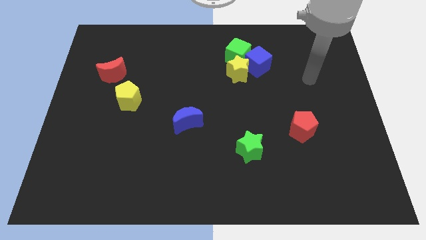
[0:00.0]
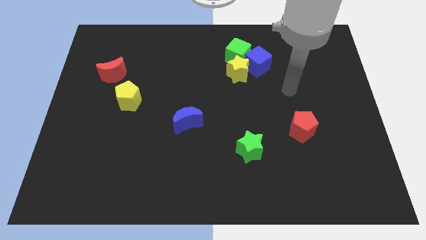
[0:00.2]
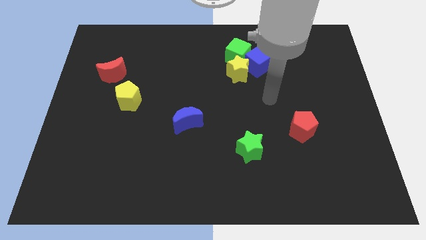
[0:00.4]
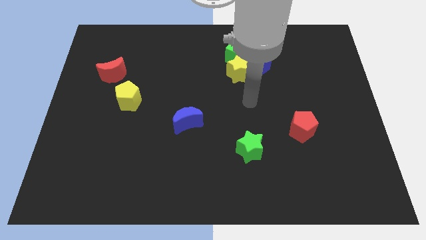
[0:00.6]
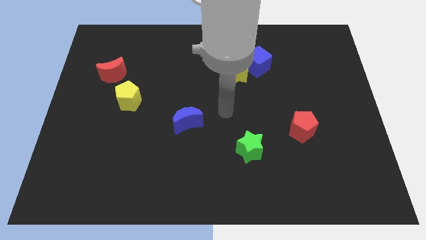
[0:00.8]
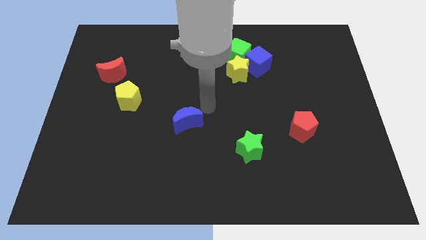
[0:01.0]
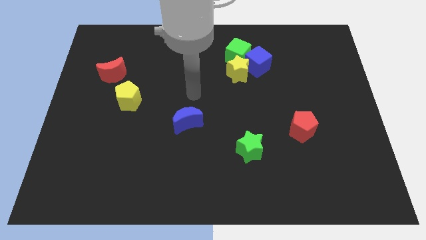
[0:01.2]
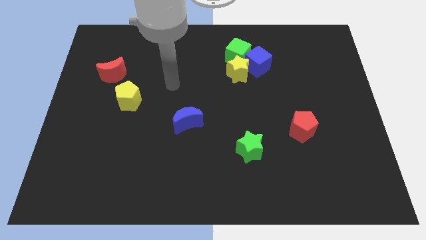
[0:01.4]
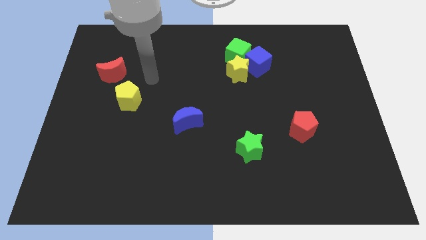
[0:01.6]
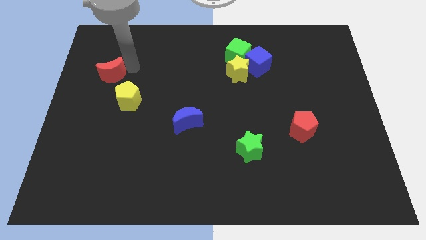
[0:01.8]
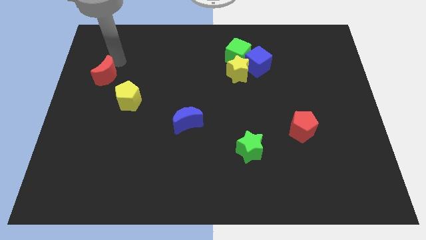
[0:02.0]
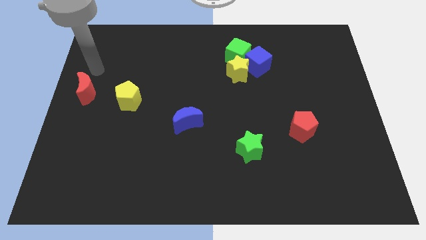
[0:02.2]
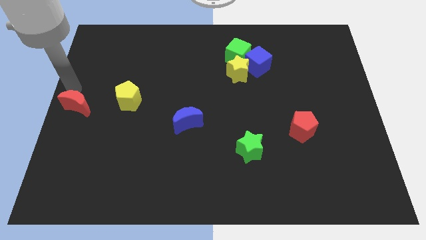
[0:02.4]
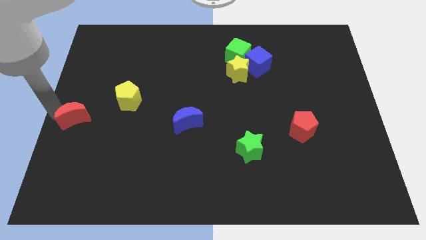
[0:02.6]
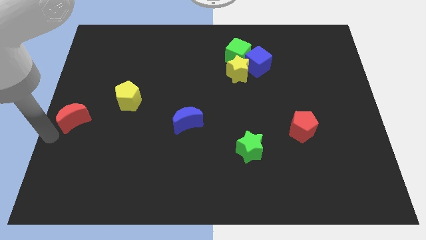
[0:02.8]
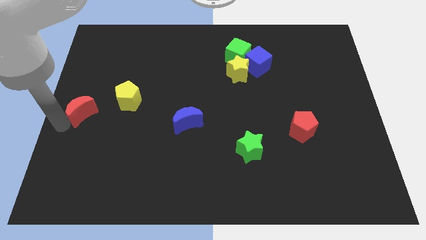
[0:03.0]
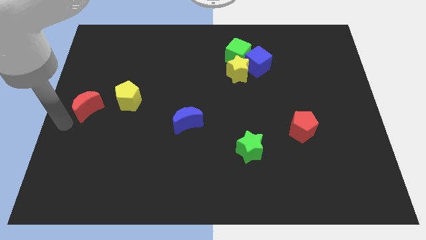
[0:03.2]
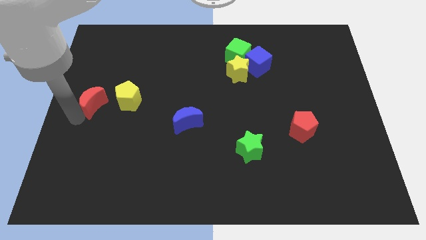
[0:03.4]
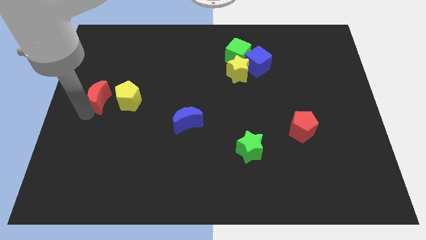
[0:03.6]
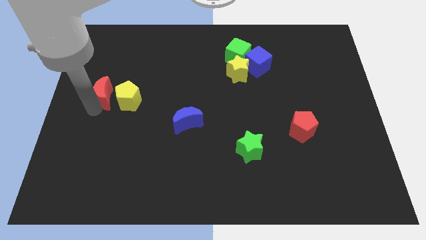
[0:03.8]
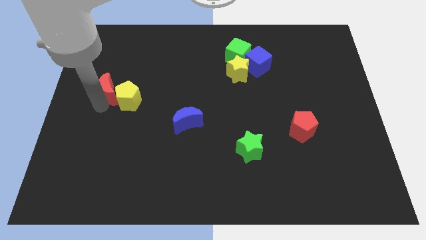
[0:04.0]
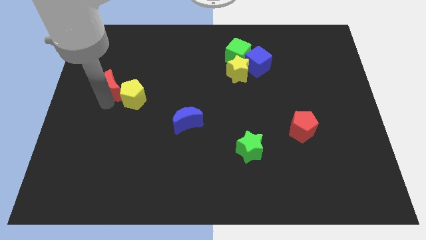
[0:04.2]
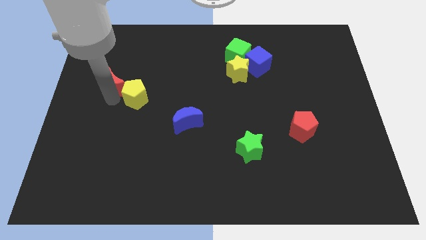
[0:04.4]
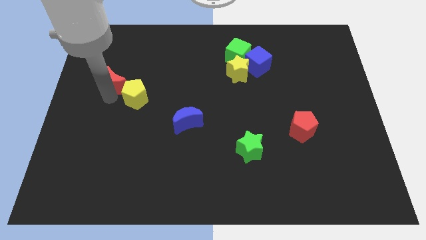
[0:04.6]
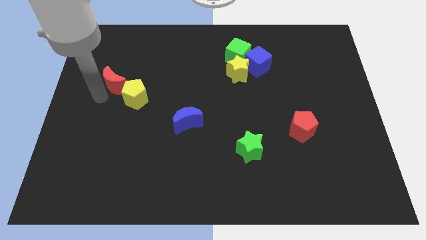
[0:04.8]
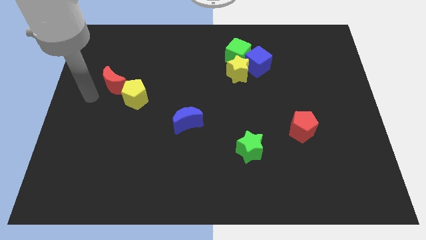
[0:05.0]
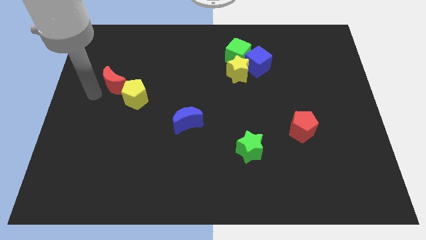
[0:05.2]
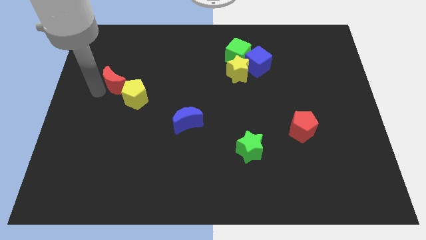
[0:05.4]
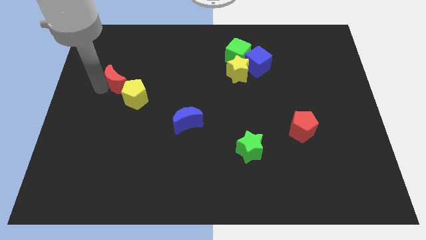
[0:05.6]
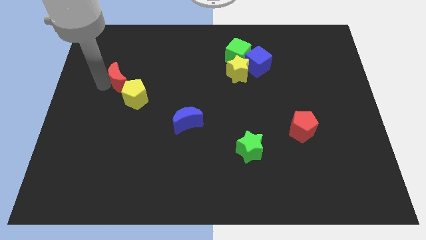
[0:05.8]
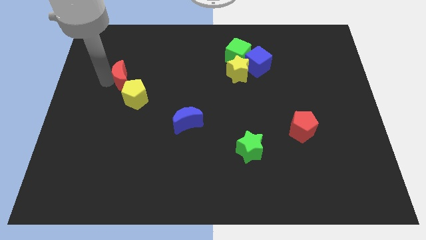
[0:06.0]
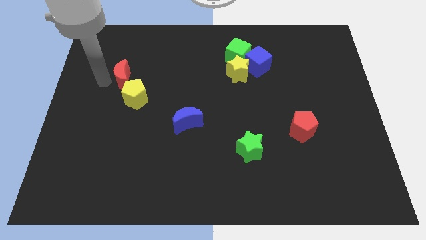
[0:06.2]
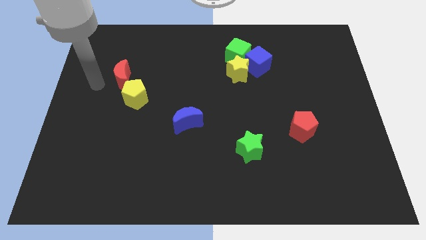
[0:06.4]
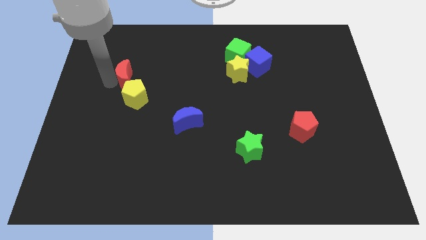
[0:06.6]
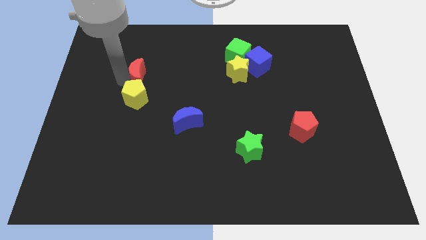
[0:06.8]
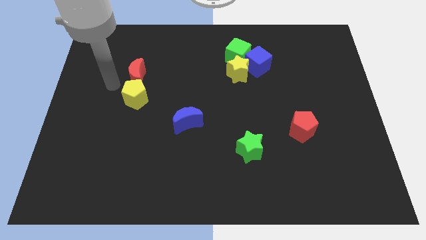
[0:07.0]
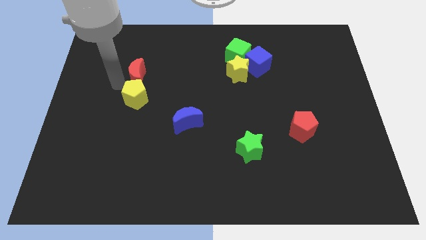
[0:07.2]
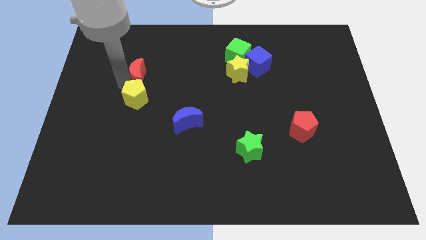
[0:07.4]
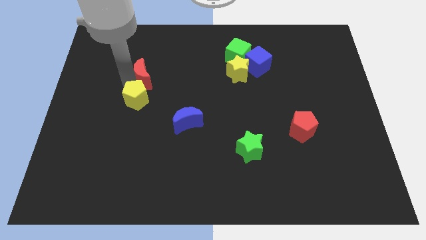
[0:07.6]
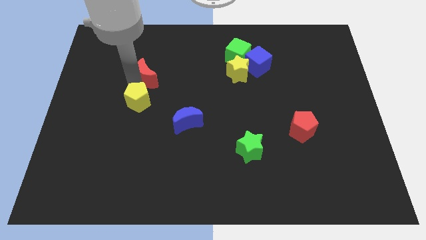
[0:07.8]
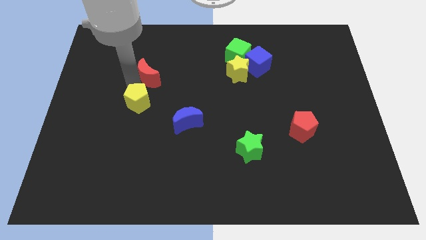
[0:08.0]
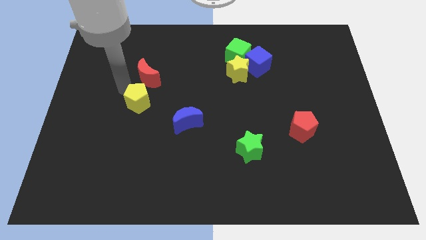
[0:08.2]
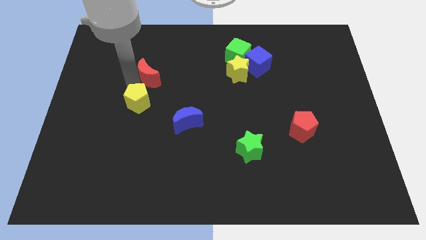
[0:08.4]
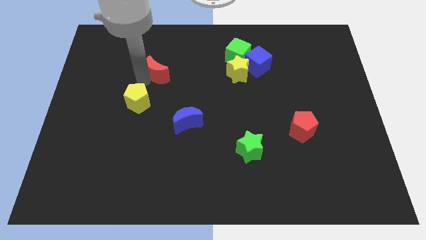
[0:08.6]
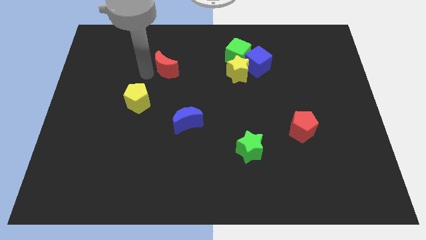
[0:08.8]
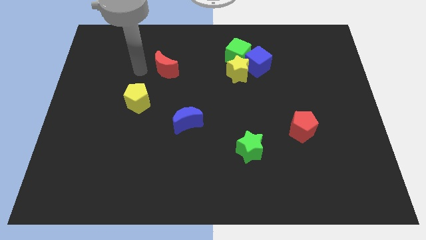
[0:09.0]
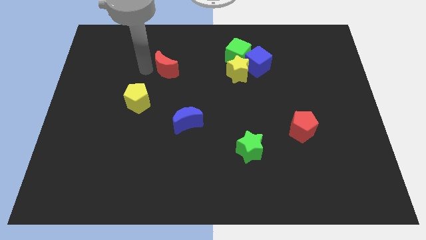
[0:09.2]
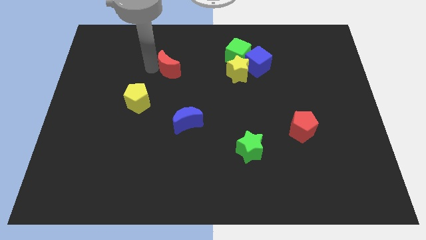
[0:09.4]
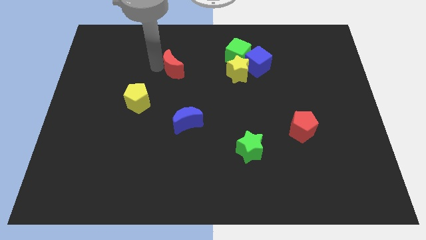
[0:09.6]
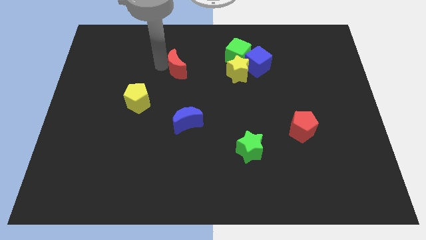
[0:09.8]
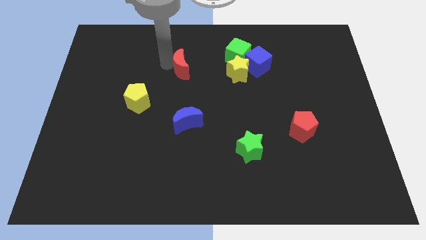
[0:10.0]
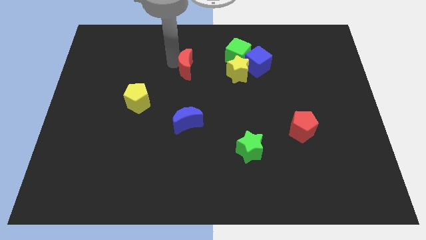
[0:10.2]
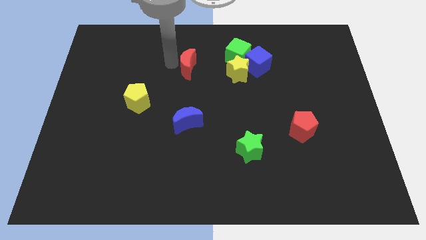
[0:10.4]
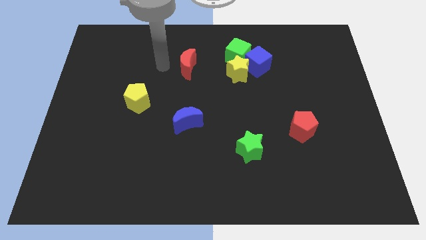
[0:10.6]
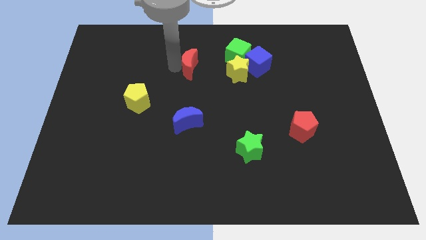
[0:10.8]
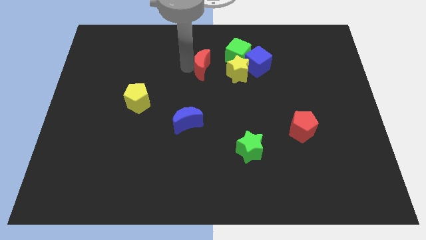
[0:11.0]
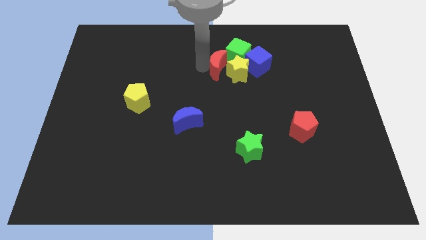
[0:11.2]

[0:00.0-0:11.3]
move the red moon towards the yellow star

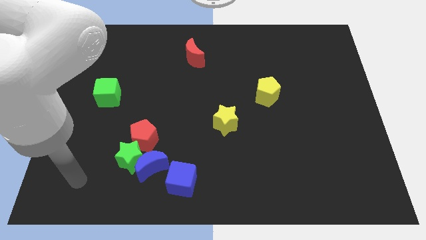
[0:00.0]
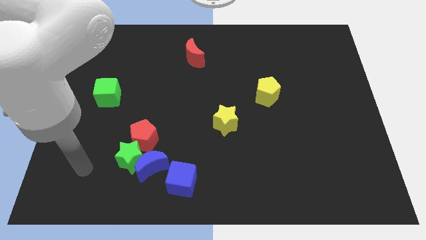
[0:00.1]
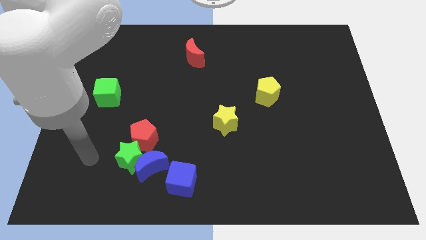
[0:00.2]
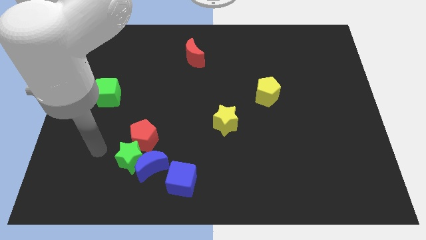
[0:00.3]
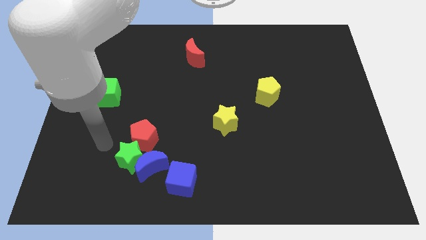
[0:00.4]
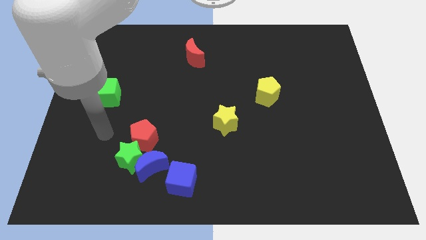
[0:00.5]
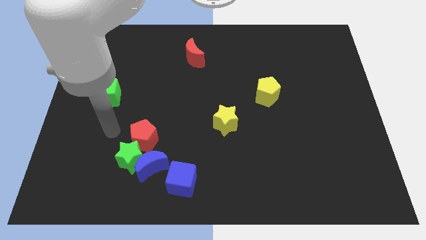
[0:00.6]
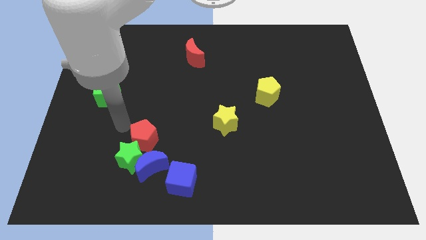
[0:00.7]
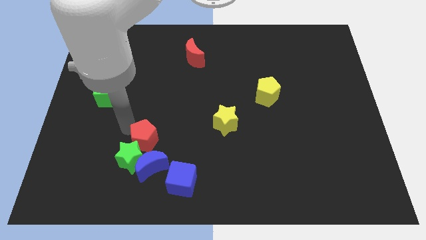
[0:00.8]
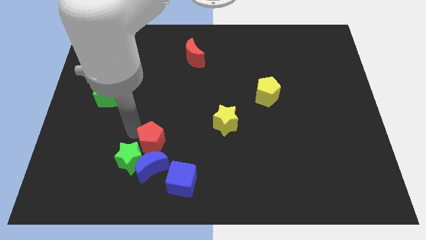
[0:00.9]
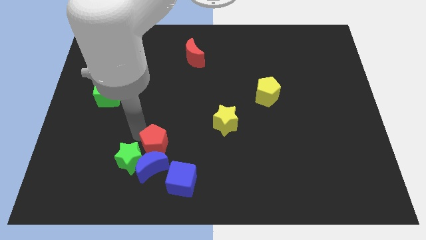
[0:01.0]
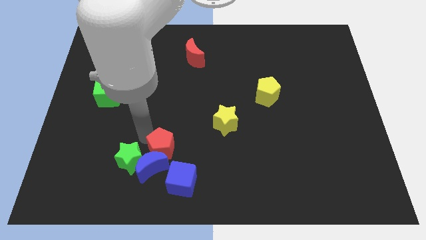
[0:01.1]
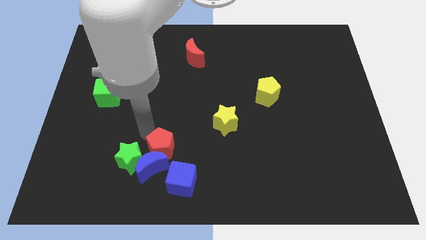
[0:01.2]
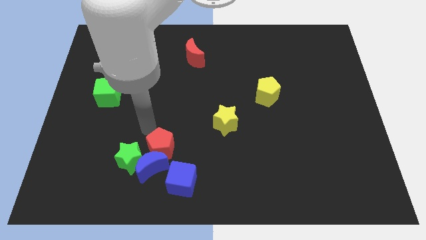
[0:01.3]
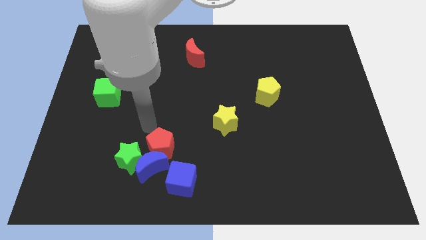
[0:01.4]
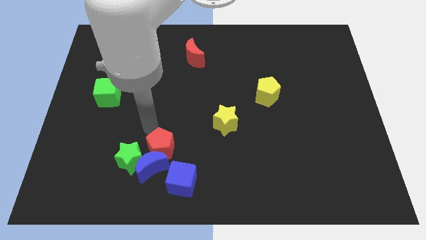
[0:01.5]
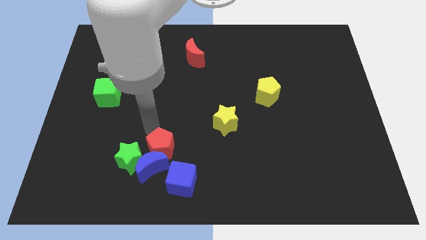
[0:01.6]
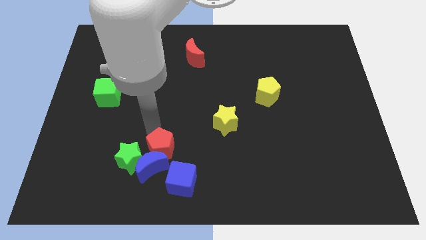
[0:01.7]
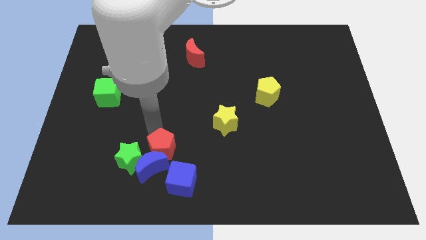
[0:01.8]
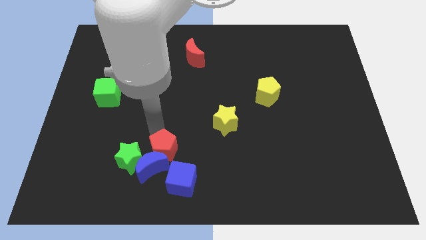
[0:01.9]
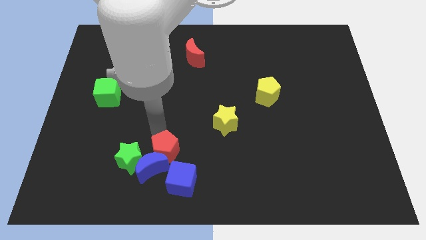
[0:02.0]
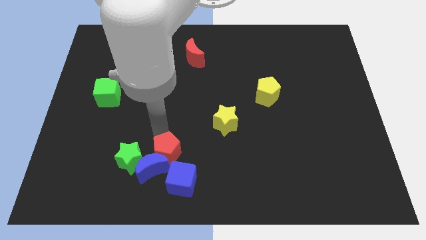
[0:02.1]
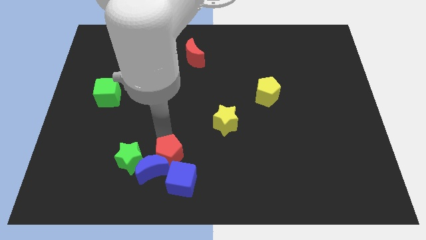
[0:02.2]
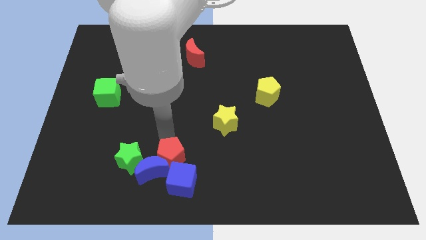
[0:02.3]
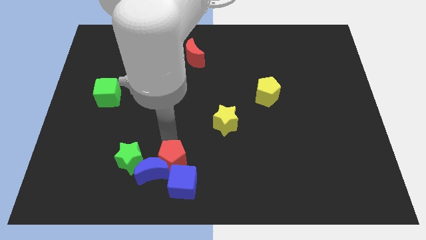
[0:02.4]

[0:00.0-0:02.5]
move the red pentagon towards the blue cube
